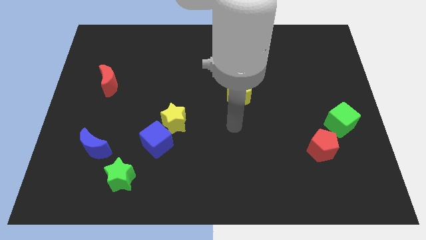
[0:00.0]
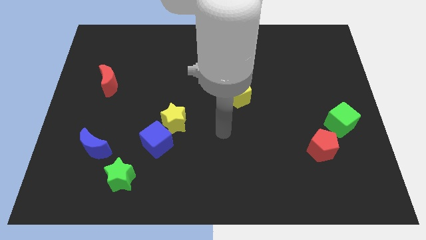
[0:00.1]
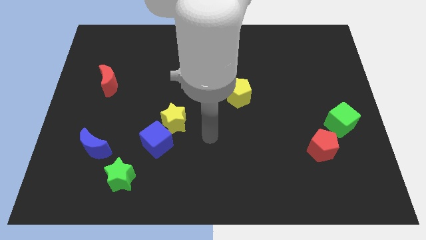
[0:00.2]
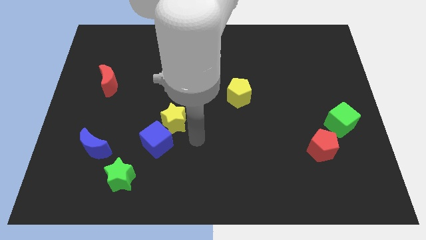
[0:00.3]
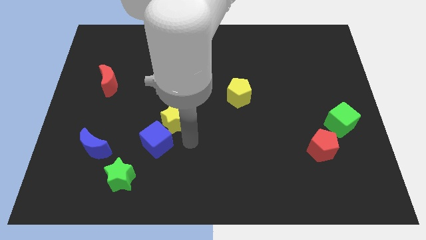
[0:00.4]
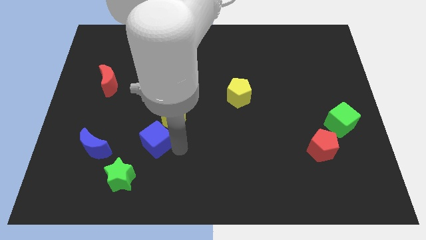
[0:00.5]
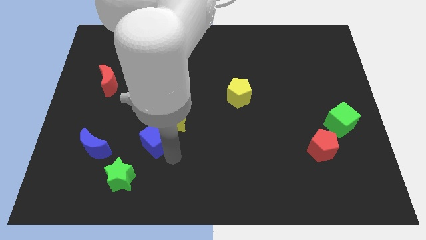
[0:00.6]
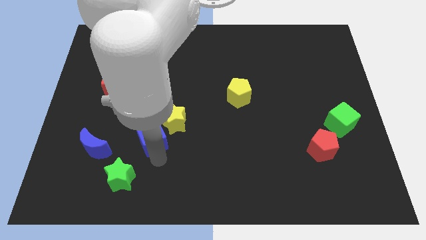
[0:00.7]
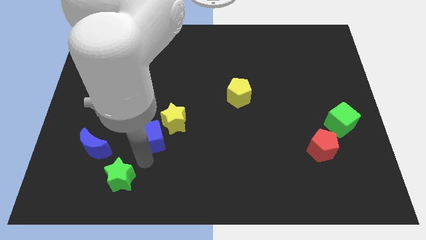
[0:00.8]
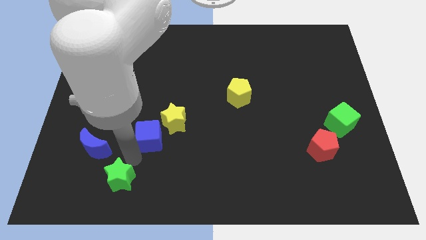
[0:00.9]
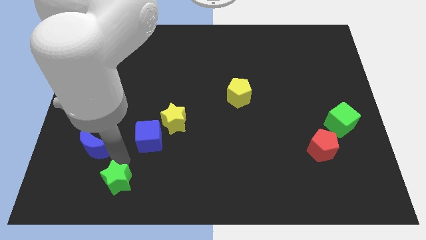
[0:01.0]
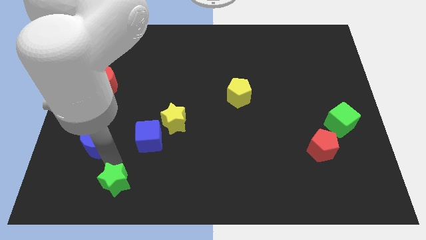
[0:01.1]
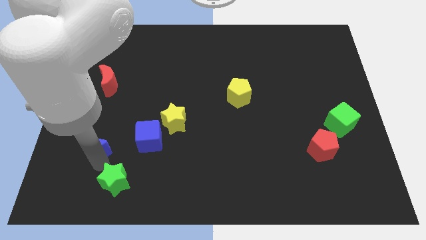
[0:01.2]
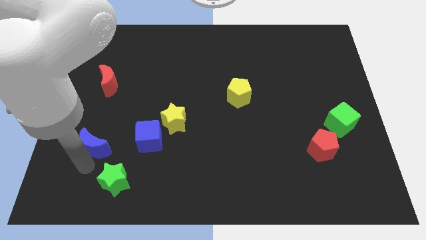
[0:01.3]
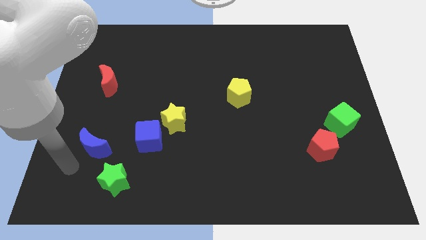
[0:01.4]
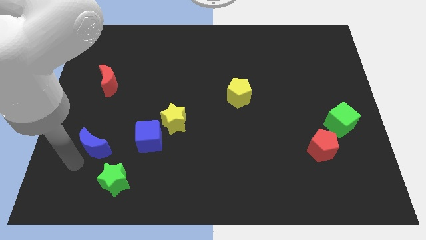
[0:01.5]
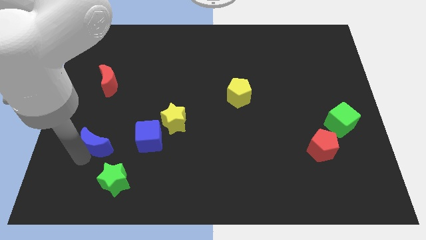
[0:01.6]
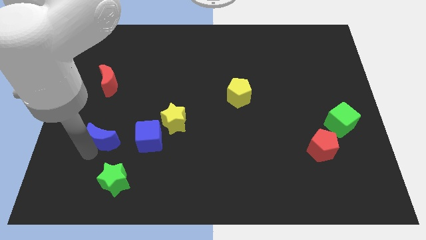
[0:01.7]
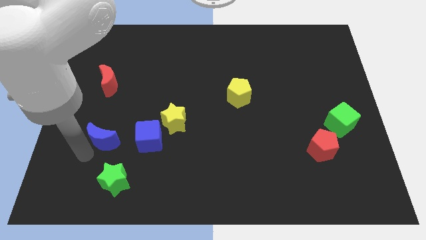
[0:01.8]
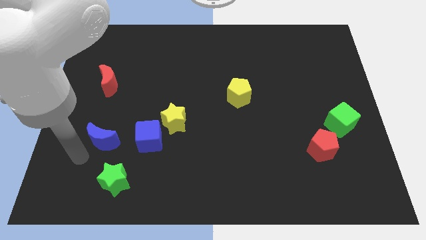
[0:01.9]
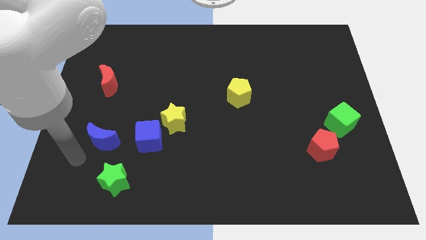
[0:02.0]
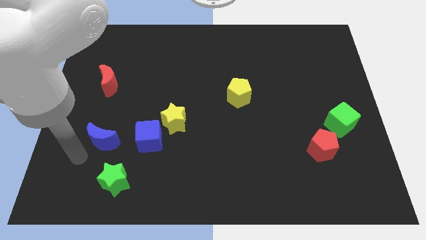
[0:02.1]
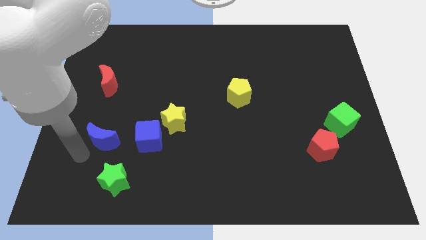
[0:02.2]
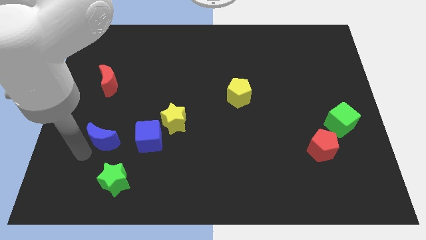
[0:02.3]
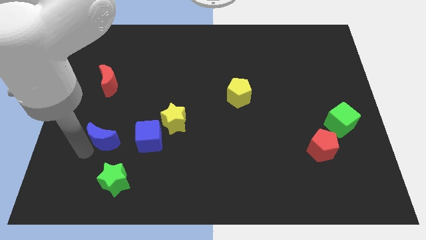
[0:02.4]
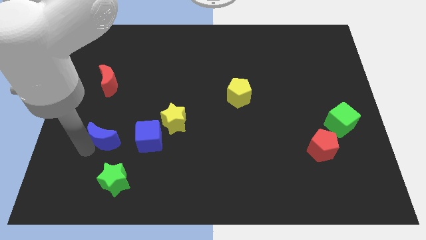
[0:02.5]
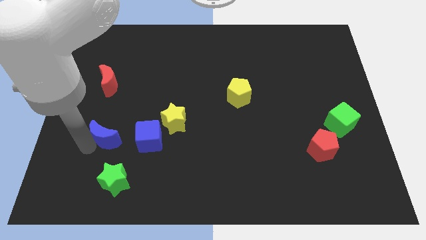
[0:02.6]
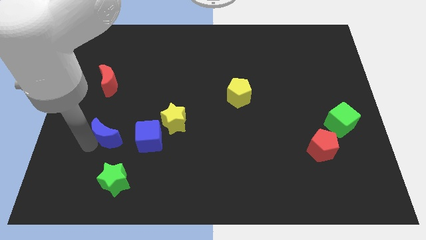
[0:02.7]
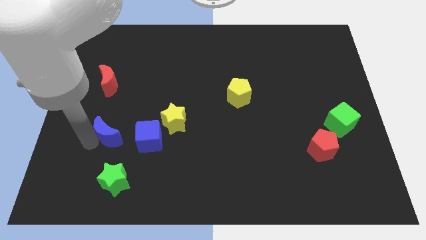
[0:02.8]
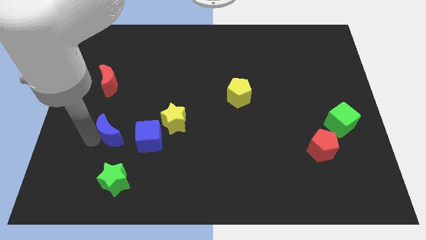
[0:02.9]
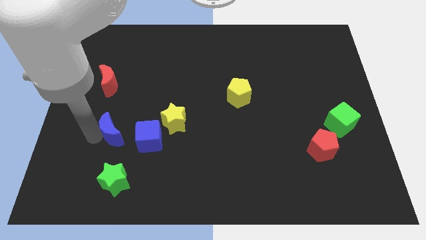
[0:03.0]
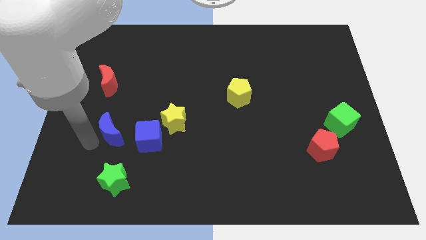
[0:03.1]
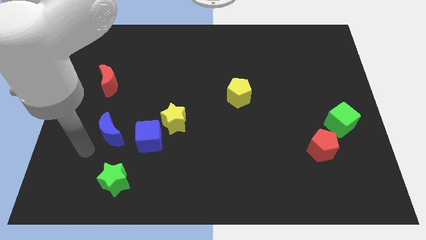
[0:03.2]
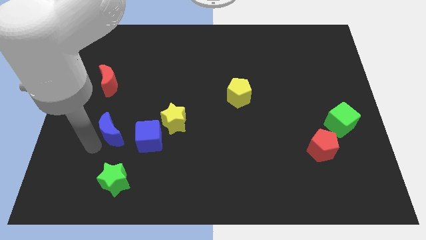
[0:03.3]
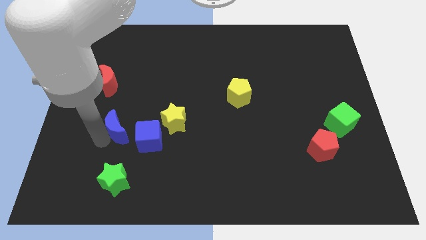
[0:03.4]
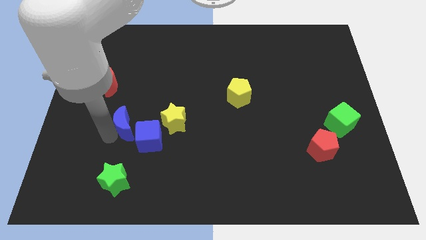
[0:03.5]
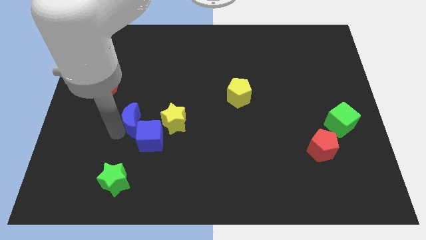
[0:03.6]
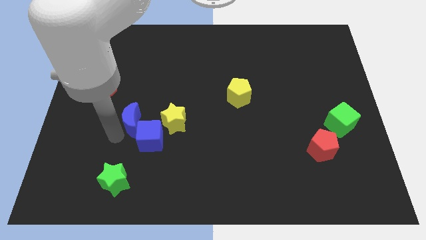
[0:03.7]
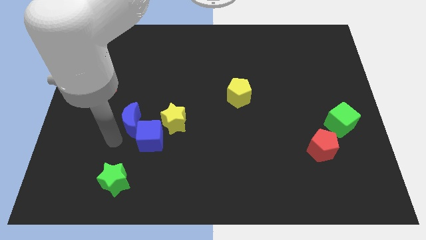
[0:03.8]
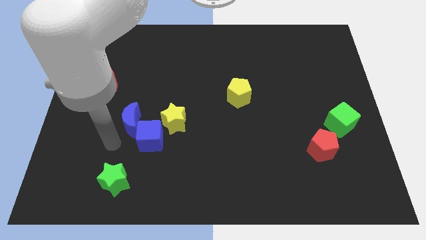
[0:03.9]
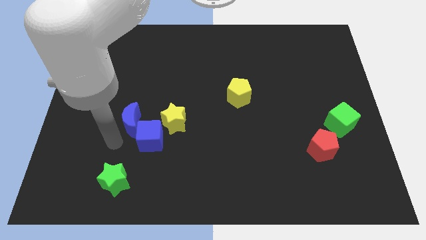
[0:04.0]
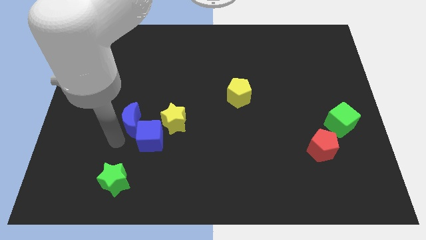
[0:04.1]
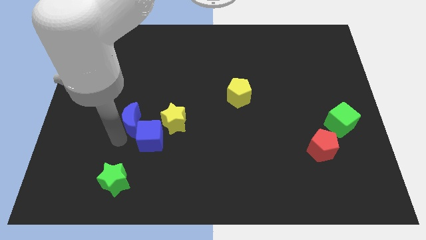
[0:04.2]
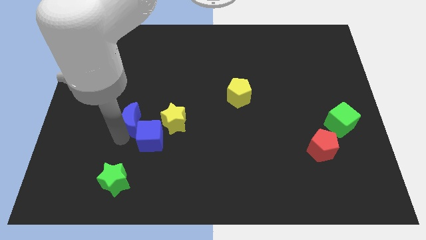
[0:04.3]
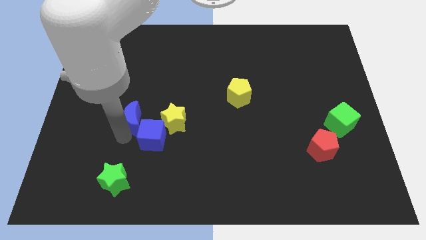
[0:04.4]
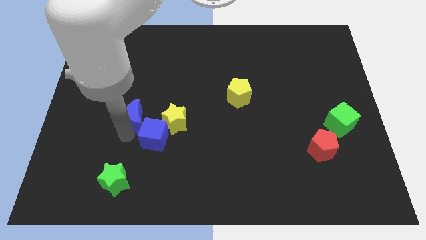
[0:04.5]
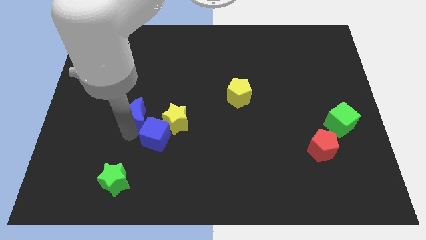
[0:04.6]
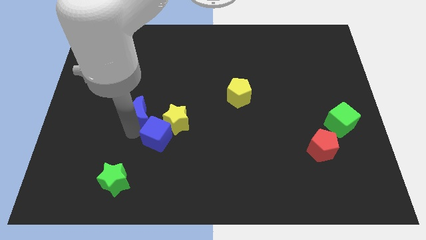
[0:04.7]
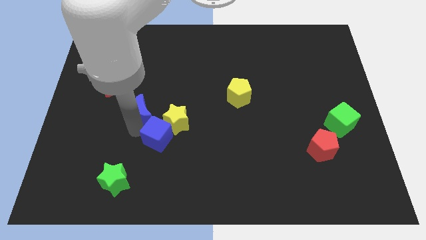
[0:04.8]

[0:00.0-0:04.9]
put the blue moon to the top left side of the yellow star

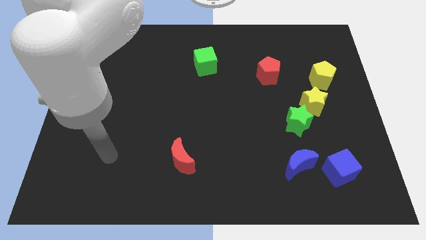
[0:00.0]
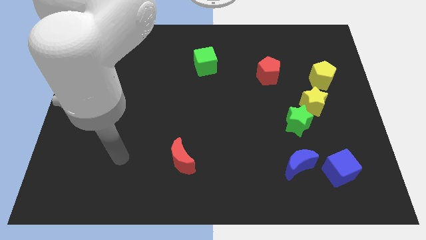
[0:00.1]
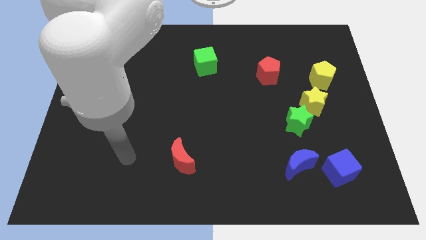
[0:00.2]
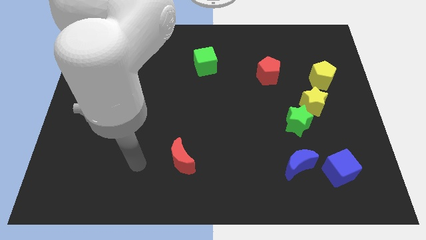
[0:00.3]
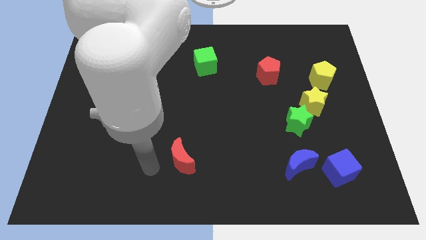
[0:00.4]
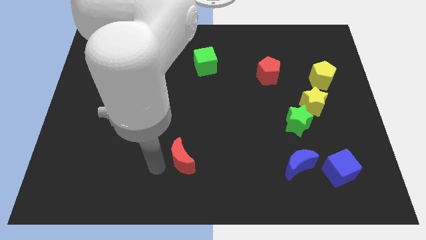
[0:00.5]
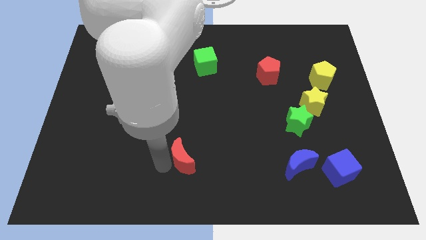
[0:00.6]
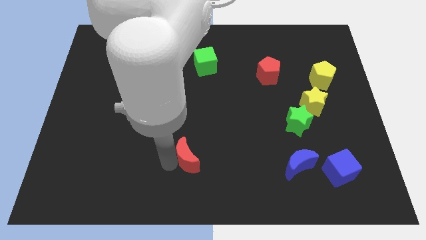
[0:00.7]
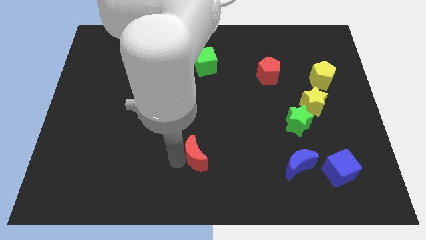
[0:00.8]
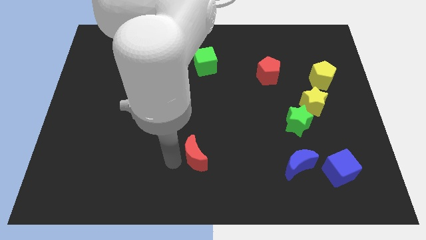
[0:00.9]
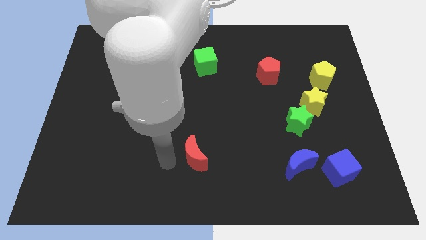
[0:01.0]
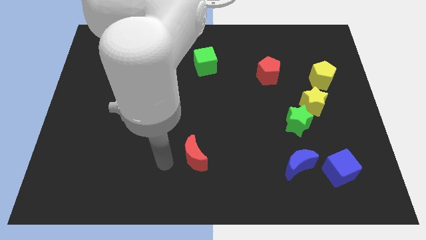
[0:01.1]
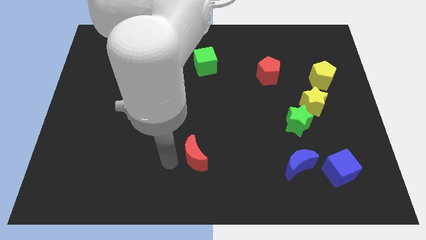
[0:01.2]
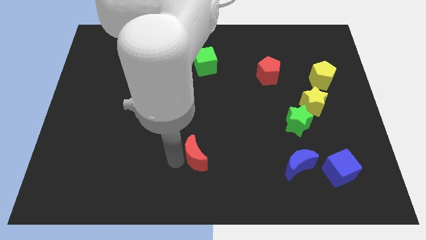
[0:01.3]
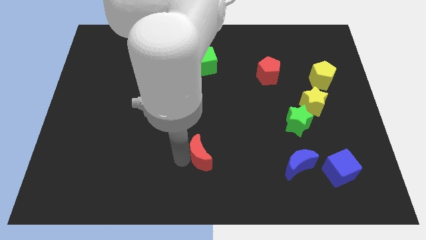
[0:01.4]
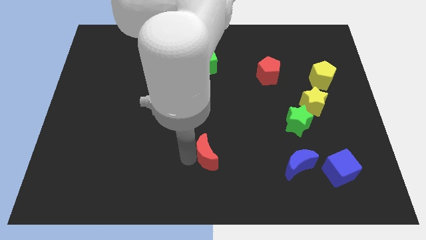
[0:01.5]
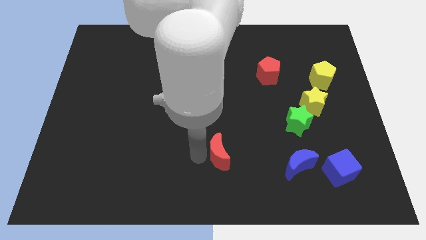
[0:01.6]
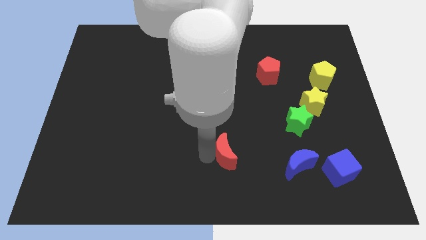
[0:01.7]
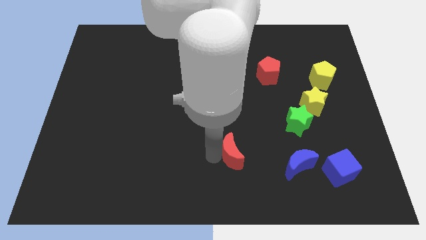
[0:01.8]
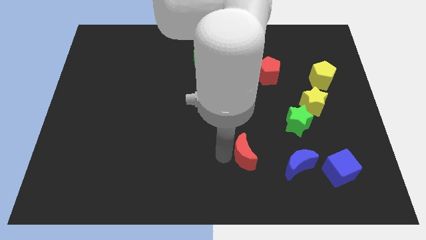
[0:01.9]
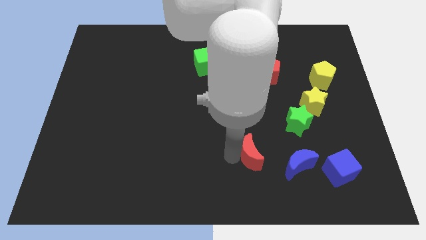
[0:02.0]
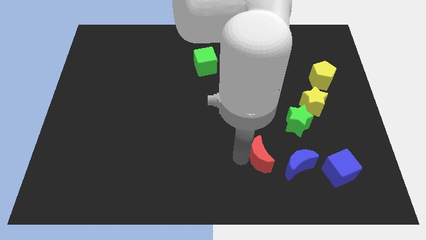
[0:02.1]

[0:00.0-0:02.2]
move the red moon to the top left side of the blue moon

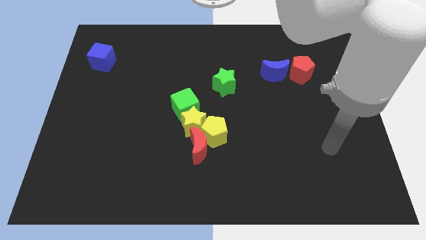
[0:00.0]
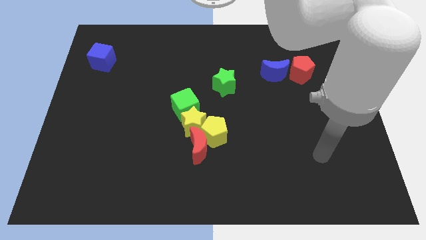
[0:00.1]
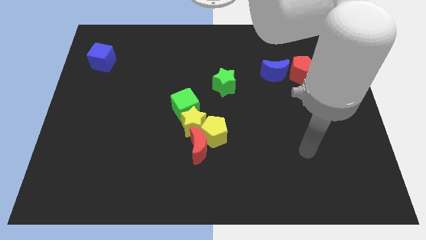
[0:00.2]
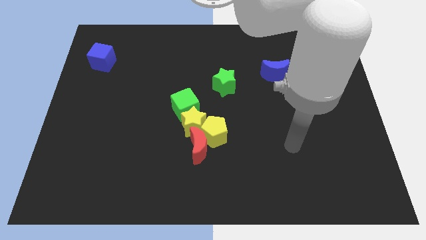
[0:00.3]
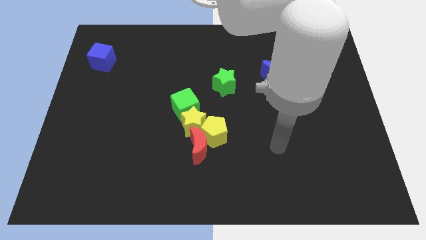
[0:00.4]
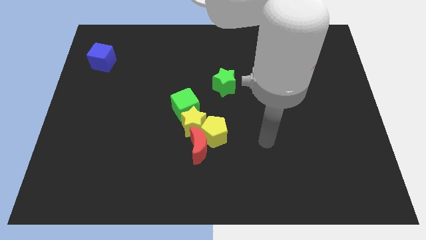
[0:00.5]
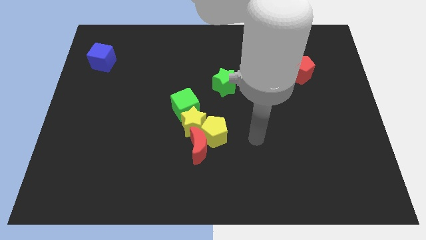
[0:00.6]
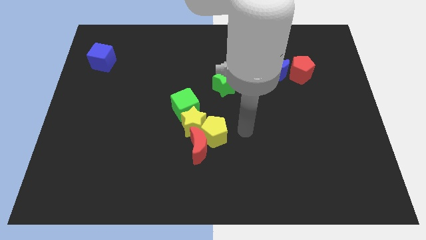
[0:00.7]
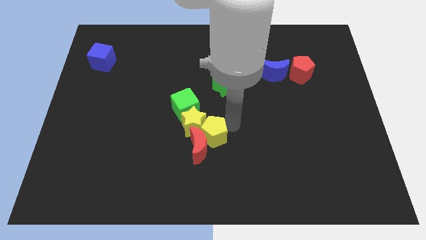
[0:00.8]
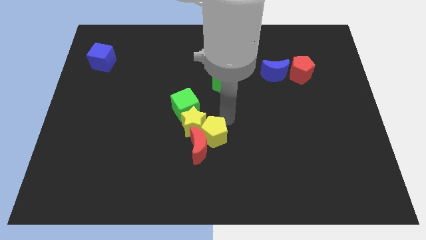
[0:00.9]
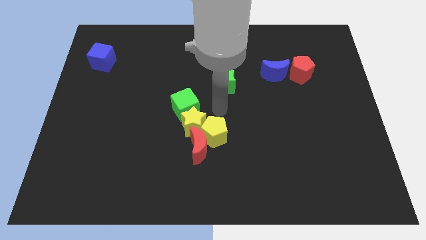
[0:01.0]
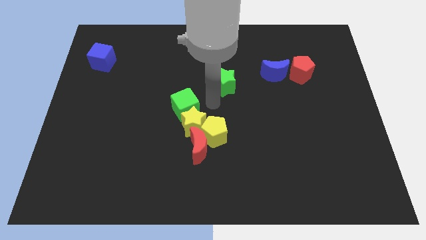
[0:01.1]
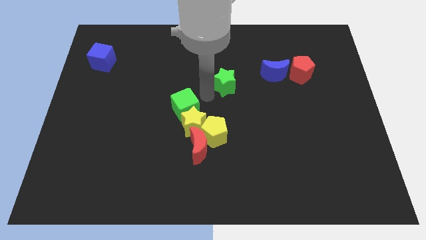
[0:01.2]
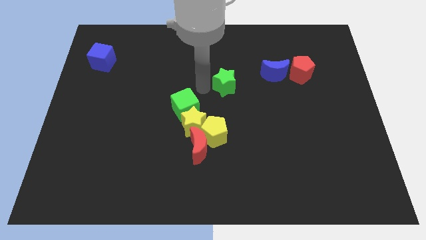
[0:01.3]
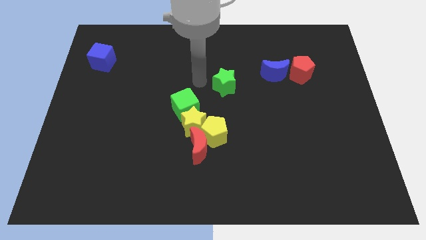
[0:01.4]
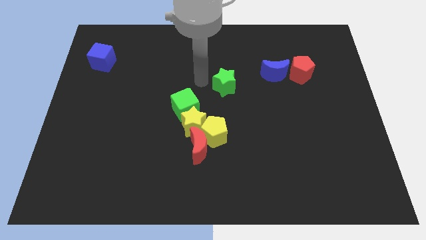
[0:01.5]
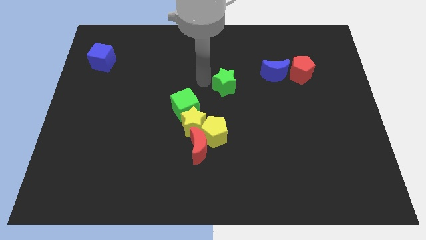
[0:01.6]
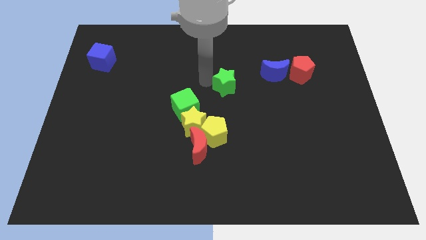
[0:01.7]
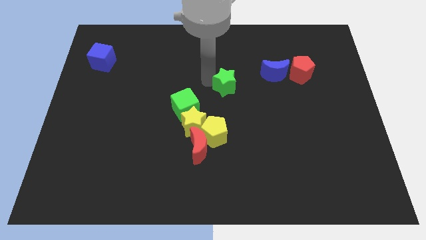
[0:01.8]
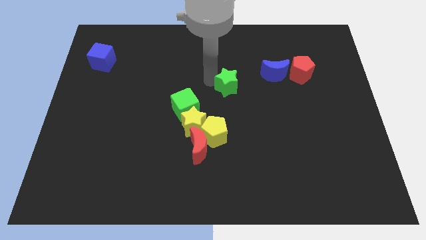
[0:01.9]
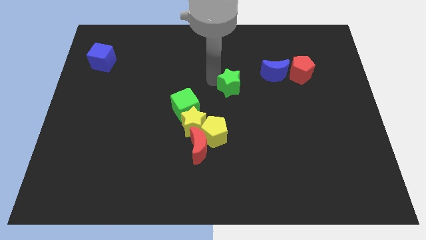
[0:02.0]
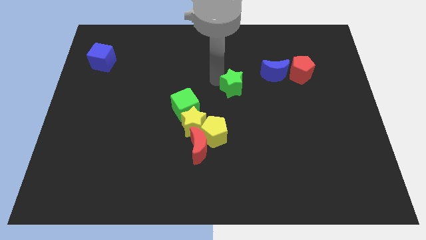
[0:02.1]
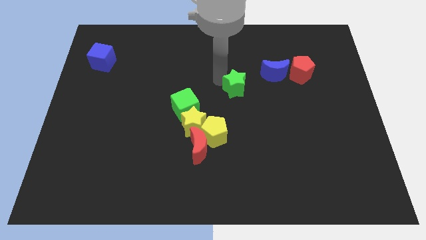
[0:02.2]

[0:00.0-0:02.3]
put the green star diagonally down and to the left of the blue moon
